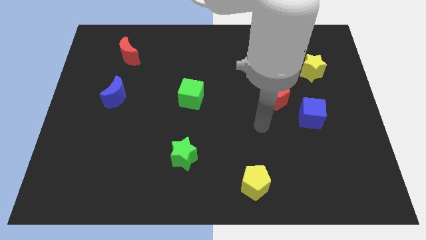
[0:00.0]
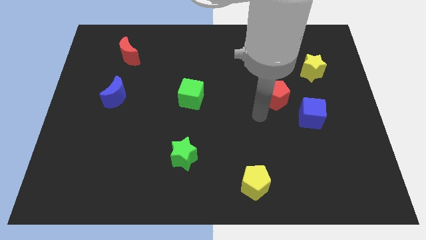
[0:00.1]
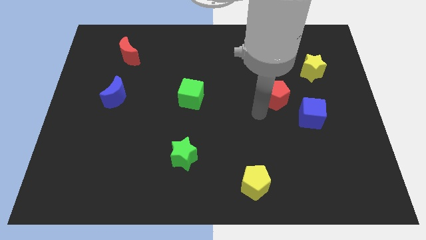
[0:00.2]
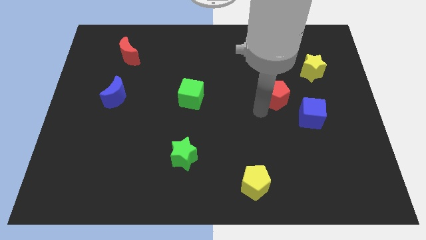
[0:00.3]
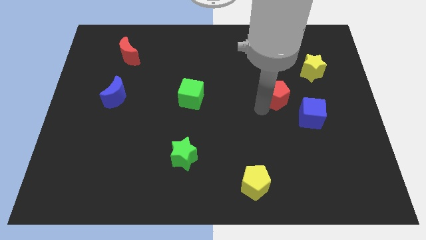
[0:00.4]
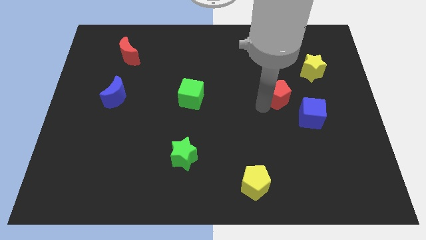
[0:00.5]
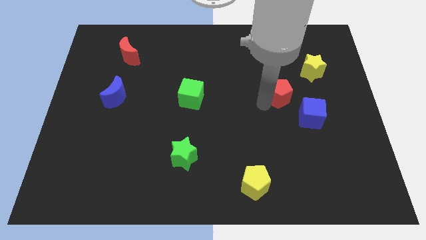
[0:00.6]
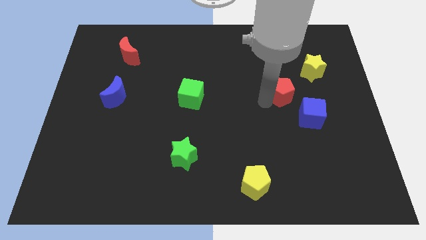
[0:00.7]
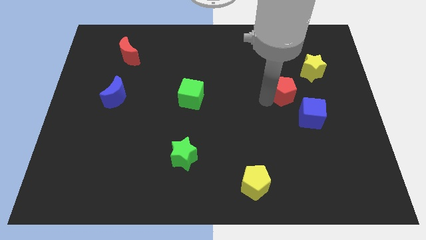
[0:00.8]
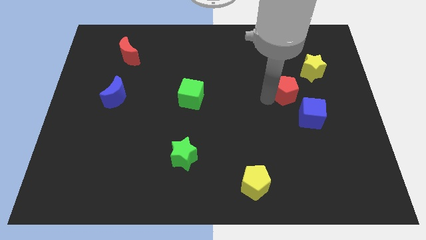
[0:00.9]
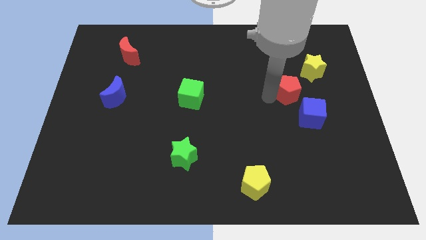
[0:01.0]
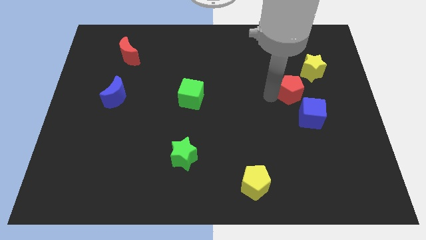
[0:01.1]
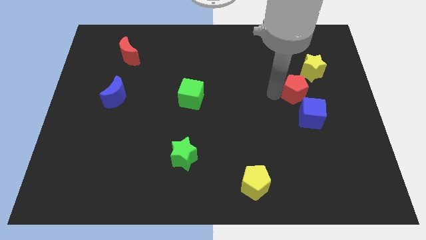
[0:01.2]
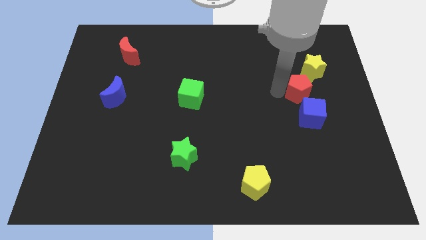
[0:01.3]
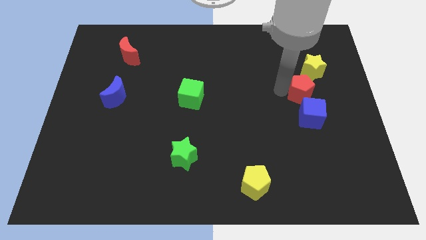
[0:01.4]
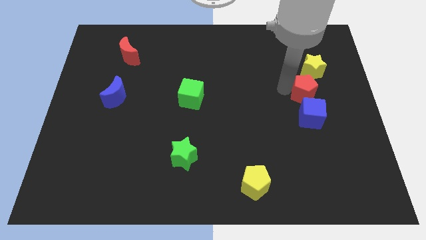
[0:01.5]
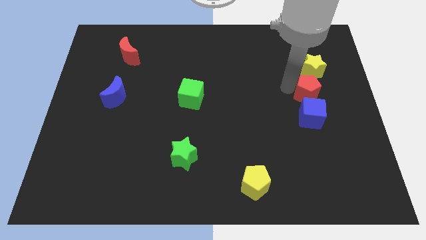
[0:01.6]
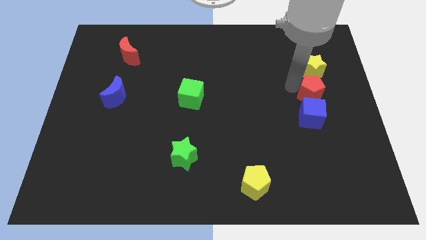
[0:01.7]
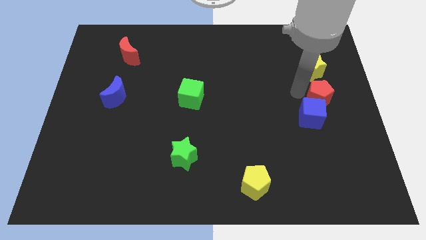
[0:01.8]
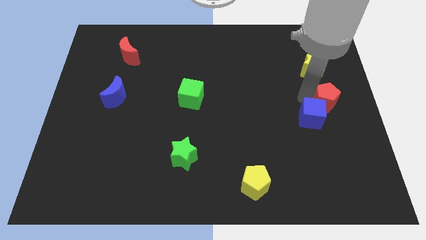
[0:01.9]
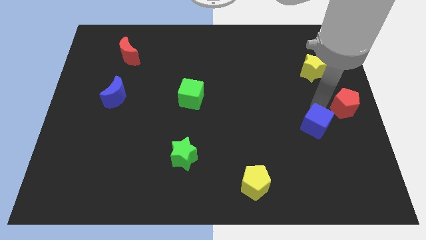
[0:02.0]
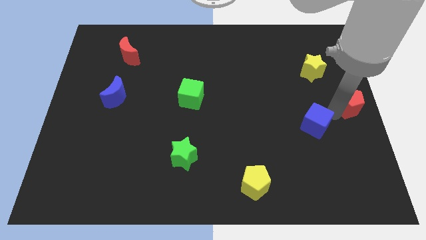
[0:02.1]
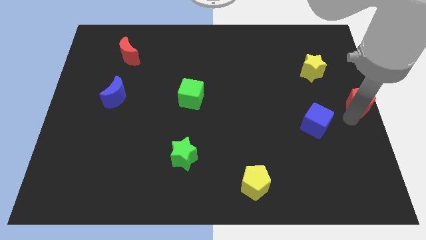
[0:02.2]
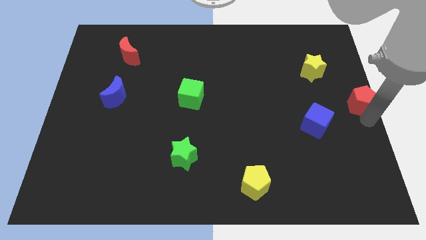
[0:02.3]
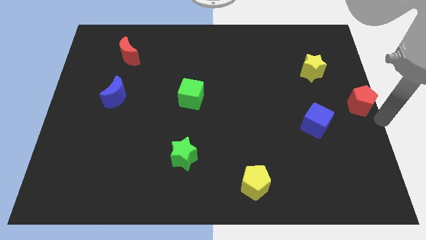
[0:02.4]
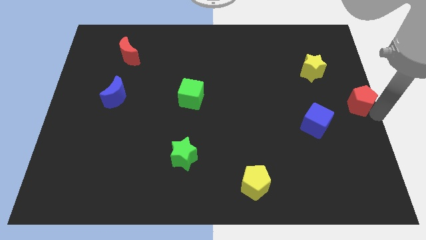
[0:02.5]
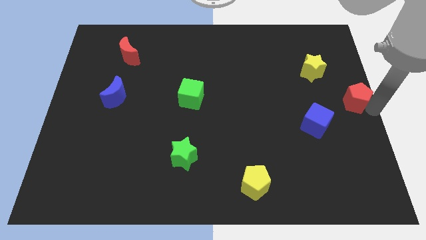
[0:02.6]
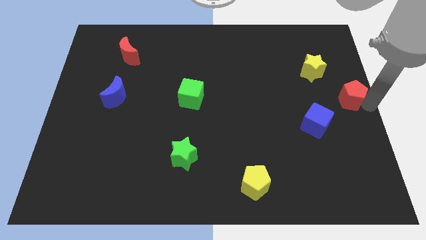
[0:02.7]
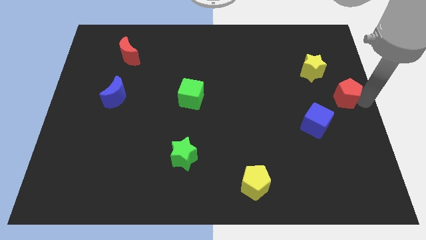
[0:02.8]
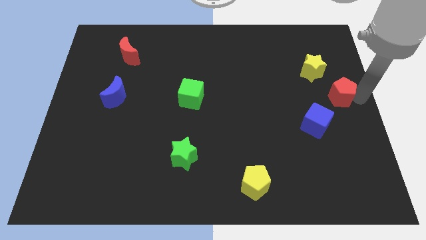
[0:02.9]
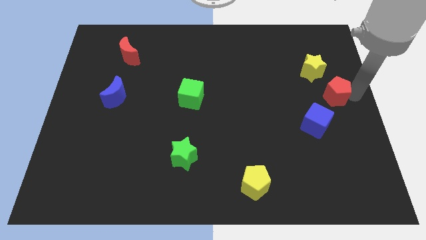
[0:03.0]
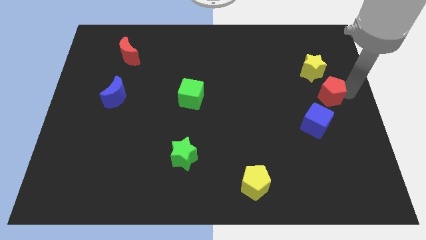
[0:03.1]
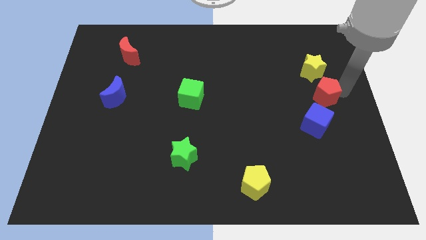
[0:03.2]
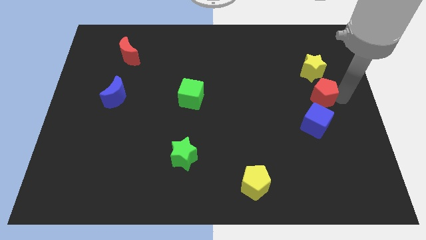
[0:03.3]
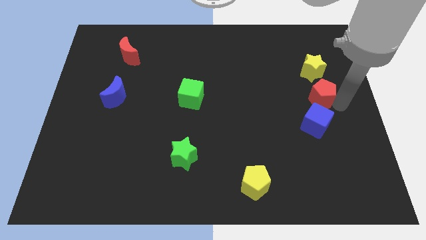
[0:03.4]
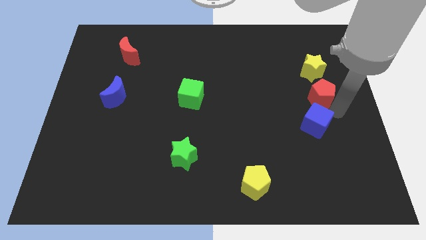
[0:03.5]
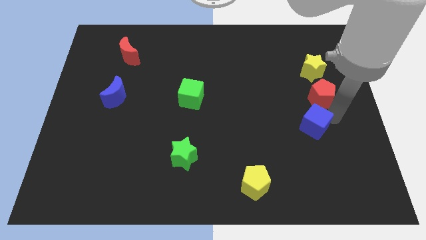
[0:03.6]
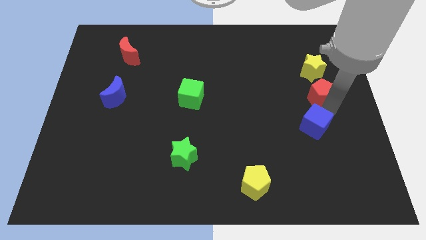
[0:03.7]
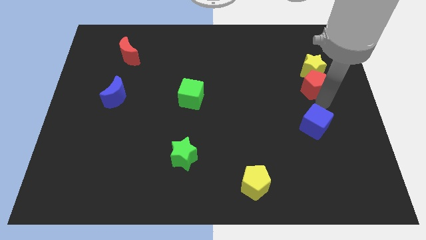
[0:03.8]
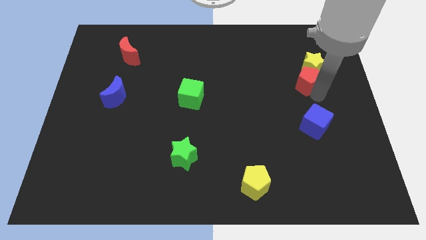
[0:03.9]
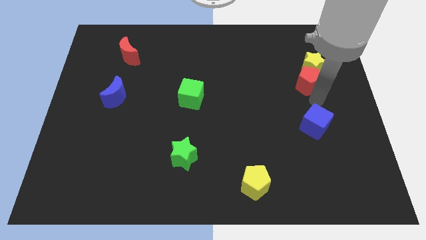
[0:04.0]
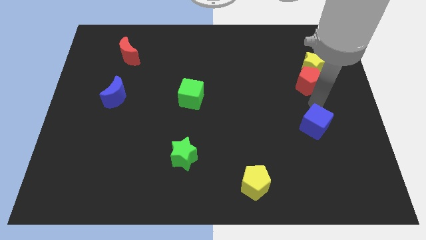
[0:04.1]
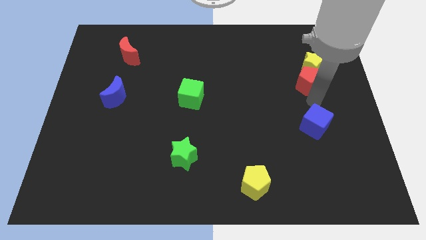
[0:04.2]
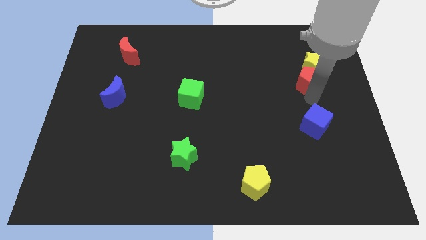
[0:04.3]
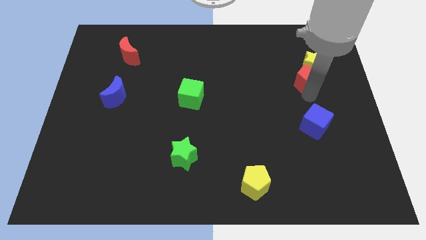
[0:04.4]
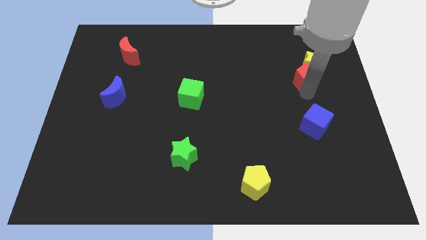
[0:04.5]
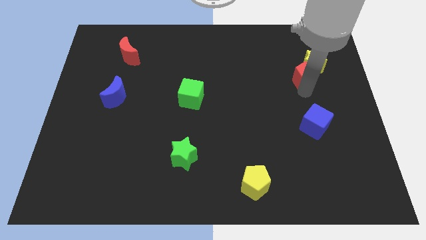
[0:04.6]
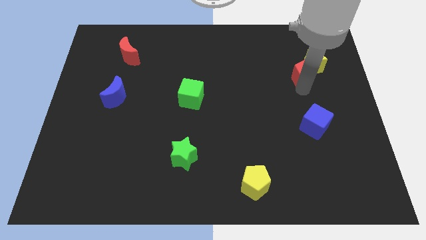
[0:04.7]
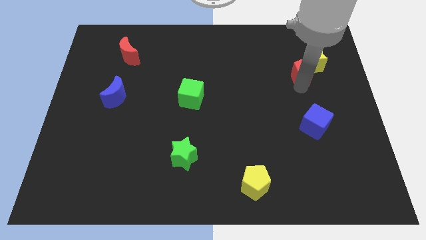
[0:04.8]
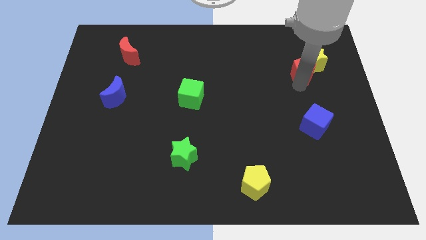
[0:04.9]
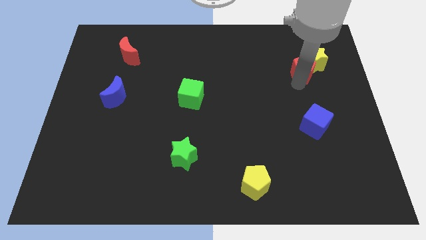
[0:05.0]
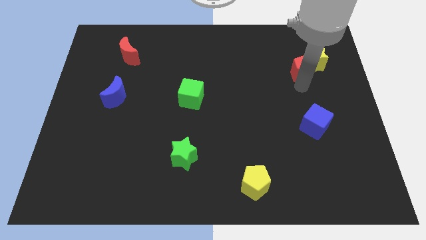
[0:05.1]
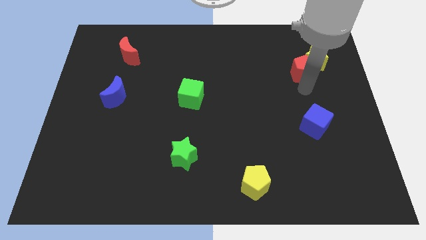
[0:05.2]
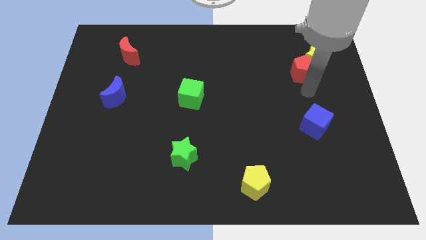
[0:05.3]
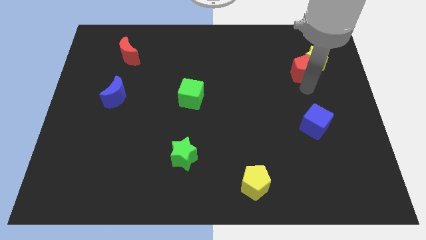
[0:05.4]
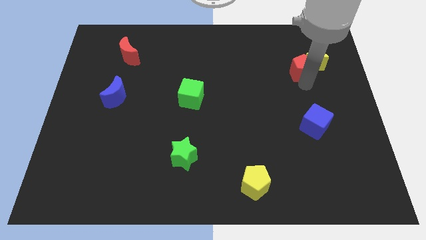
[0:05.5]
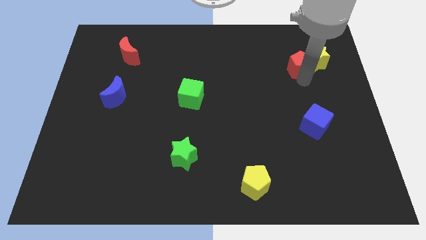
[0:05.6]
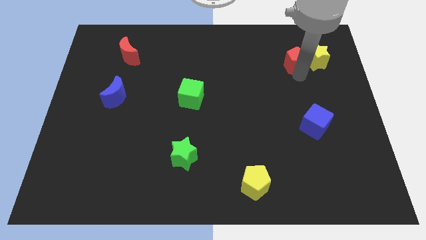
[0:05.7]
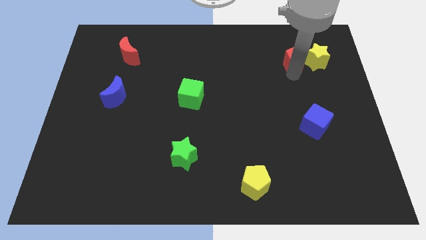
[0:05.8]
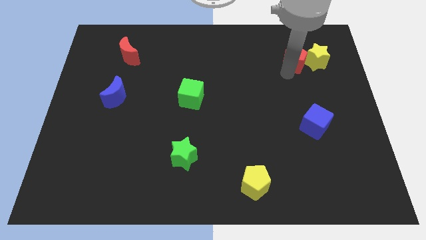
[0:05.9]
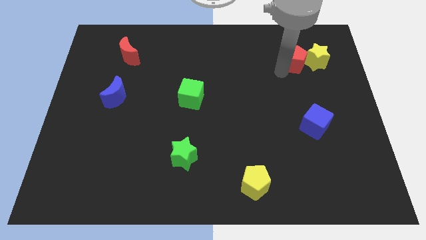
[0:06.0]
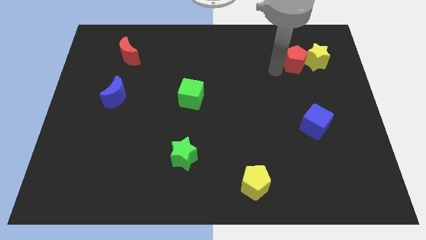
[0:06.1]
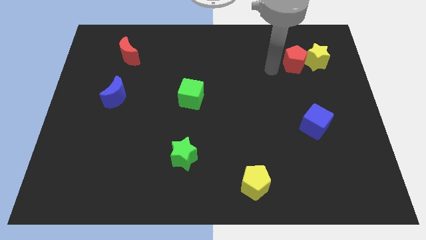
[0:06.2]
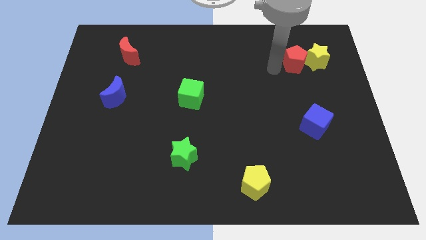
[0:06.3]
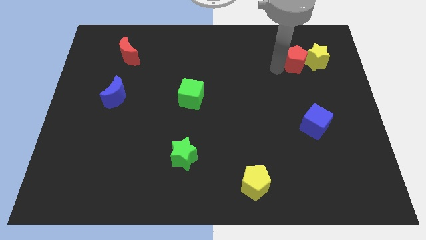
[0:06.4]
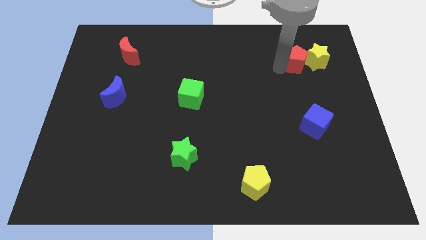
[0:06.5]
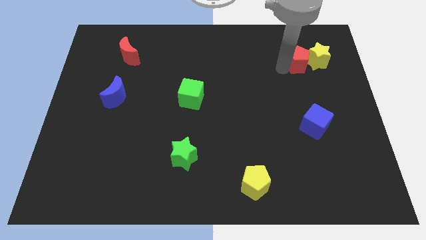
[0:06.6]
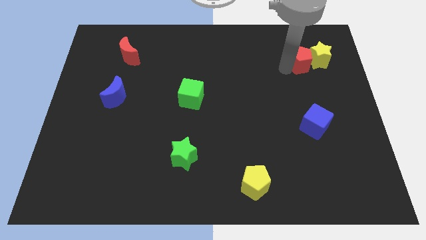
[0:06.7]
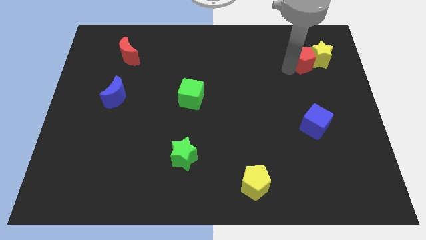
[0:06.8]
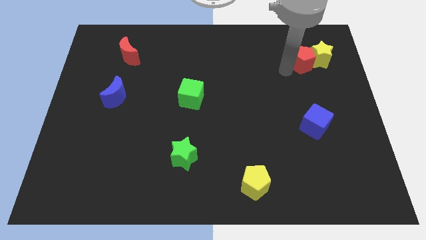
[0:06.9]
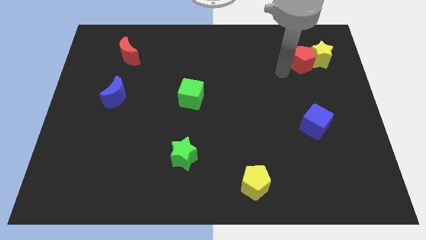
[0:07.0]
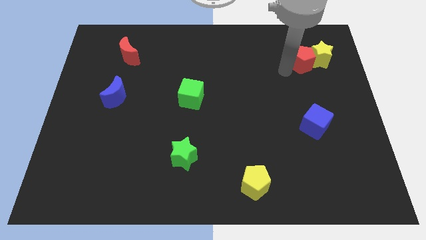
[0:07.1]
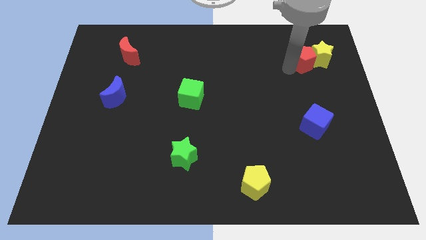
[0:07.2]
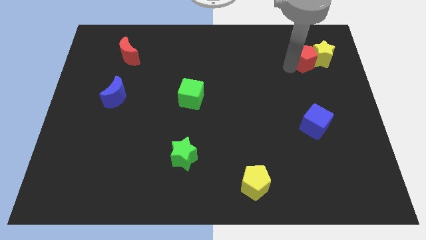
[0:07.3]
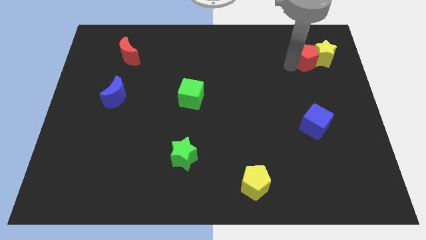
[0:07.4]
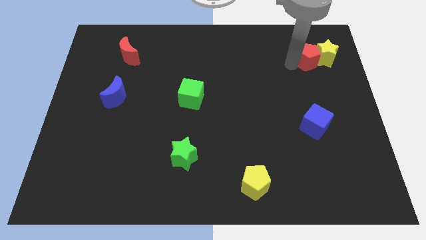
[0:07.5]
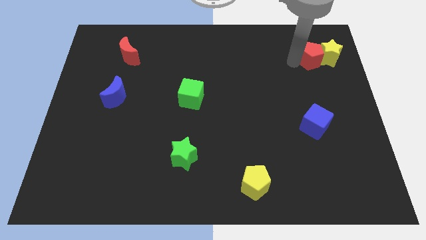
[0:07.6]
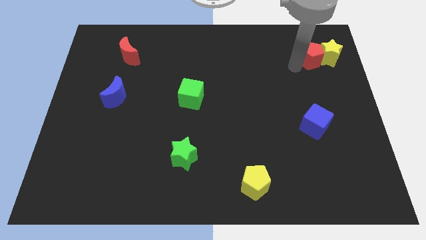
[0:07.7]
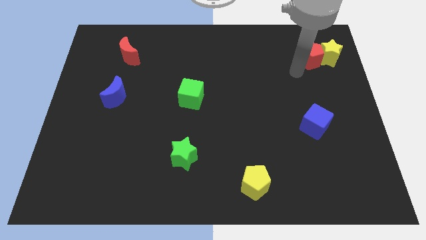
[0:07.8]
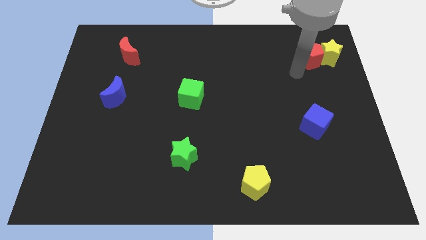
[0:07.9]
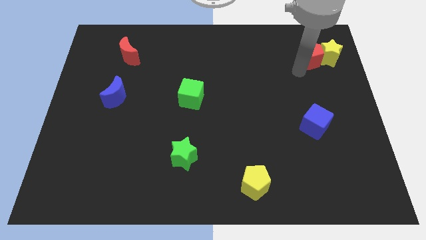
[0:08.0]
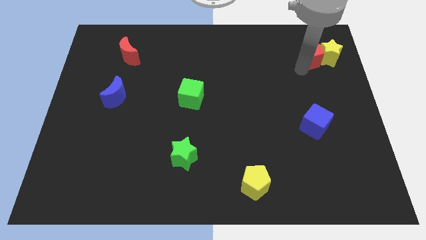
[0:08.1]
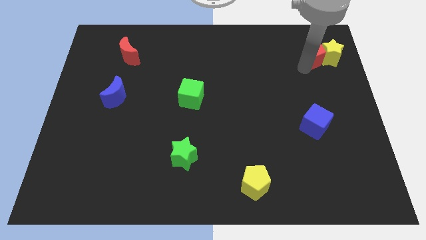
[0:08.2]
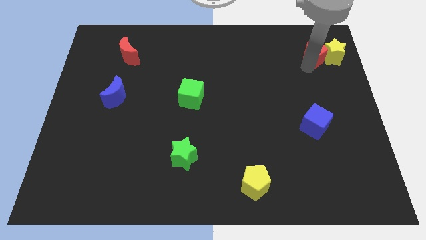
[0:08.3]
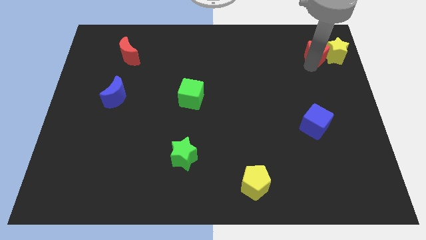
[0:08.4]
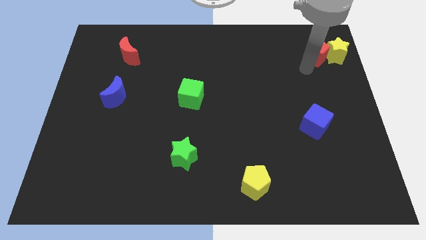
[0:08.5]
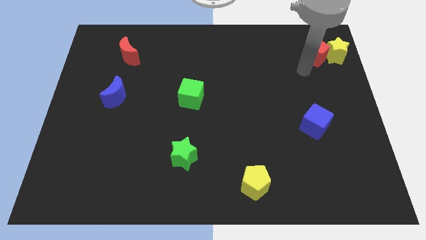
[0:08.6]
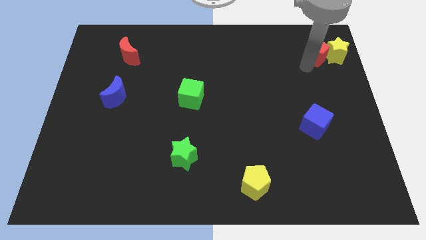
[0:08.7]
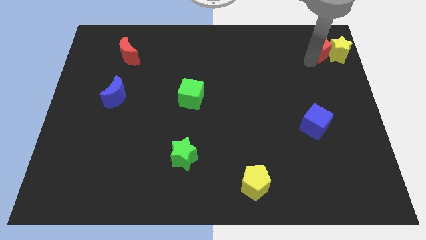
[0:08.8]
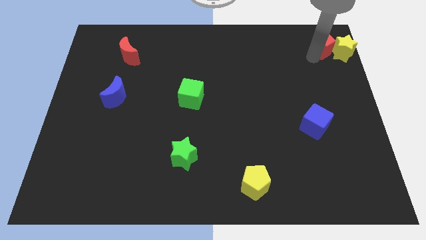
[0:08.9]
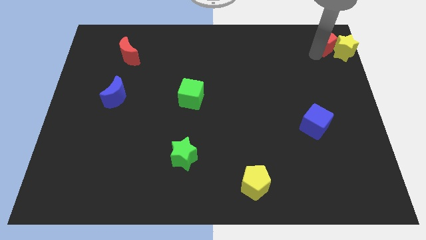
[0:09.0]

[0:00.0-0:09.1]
move the red pentagon to the top right corner
